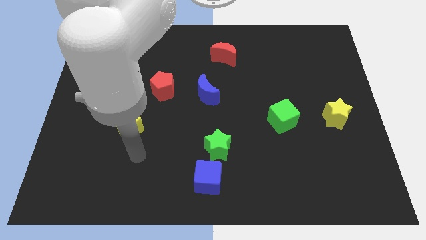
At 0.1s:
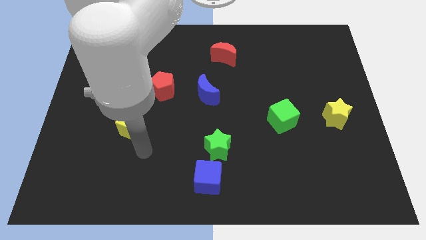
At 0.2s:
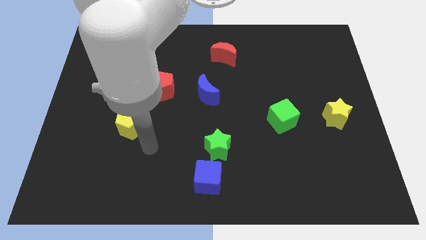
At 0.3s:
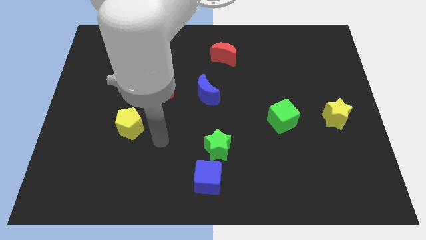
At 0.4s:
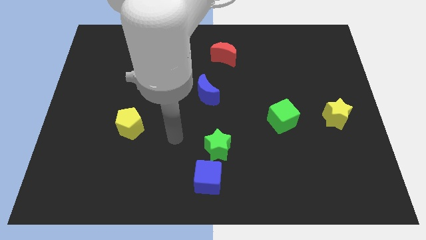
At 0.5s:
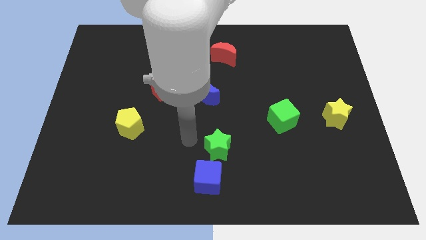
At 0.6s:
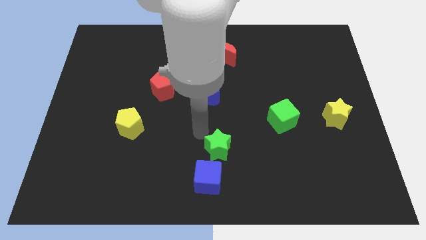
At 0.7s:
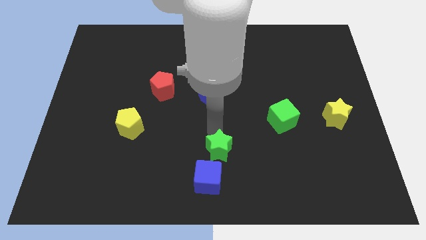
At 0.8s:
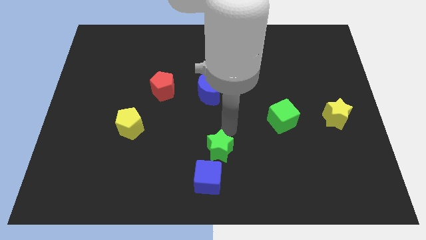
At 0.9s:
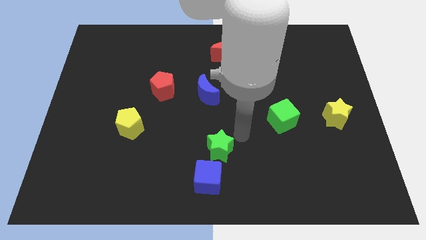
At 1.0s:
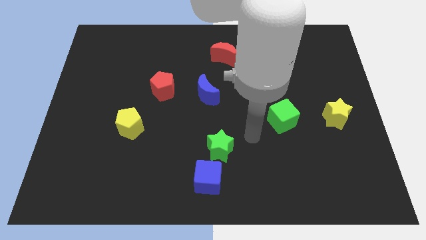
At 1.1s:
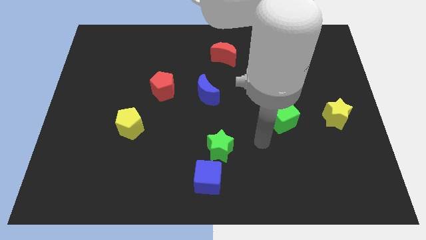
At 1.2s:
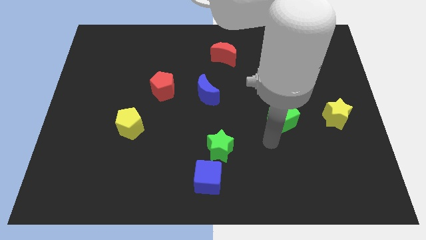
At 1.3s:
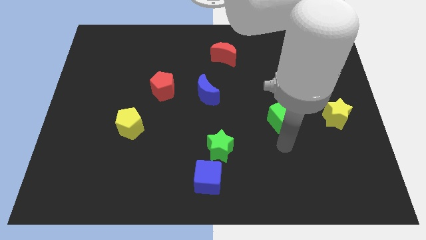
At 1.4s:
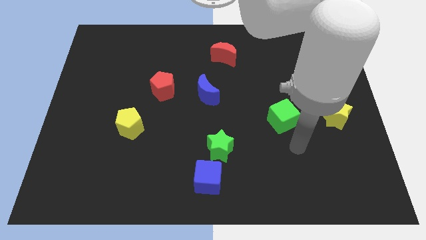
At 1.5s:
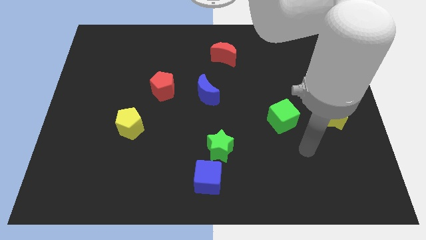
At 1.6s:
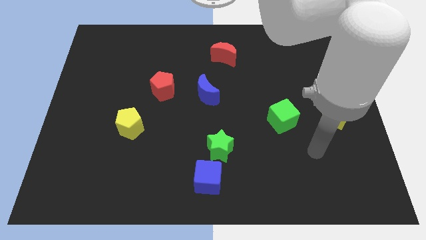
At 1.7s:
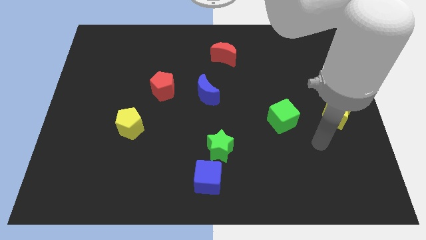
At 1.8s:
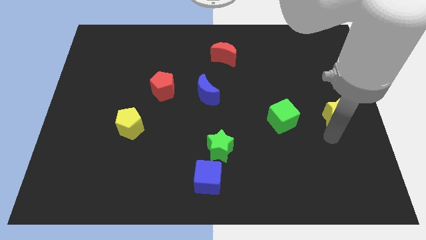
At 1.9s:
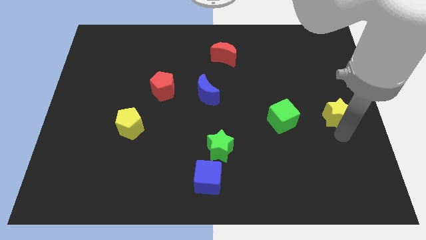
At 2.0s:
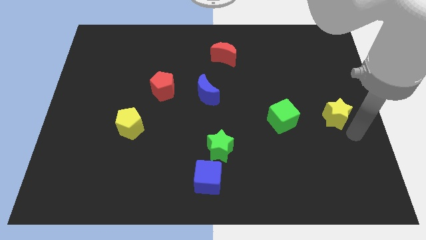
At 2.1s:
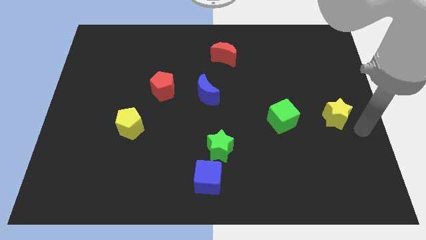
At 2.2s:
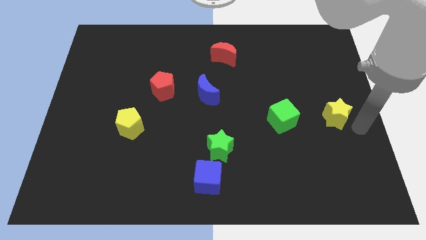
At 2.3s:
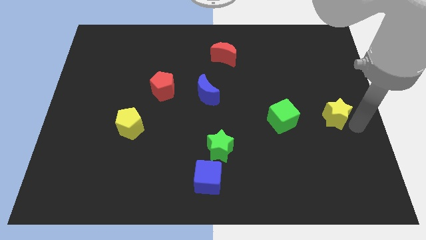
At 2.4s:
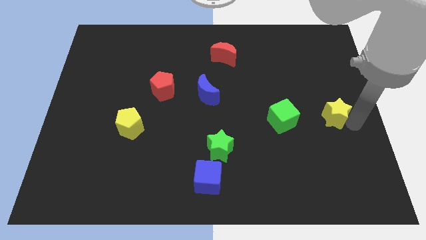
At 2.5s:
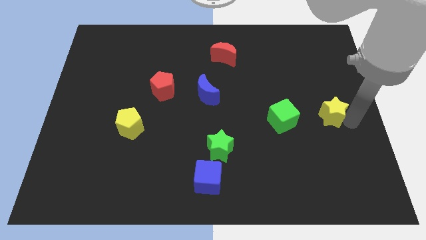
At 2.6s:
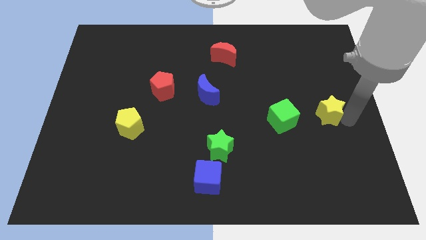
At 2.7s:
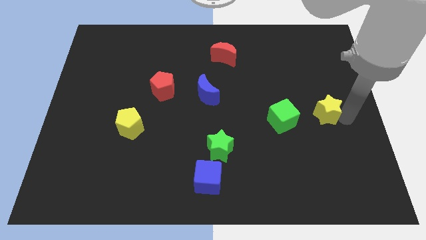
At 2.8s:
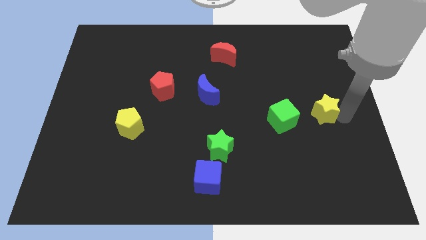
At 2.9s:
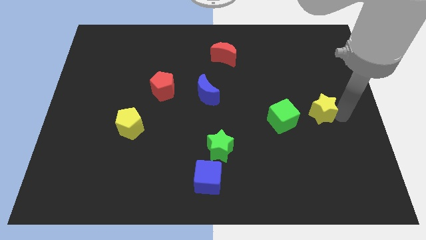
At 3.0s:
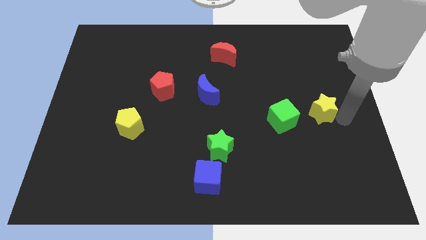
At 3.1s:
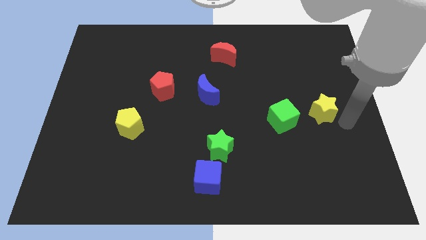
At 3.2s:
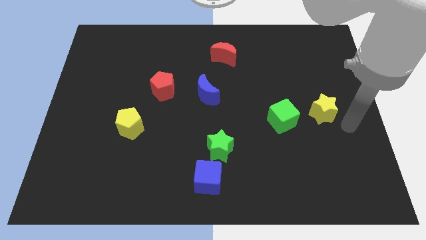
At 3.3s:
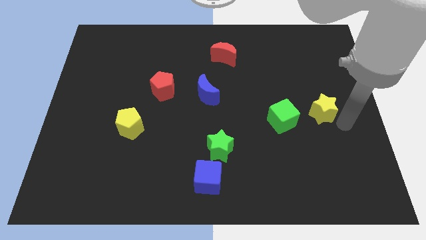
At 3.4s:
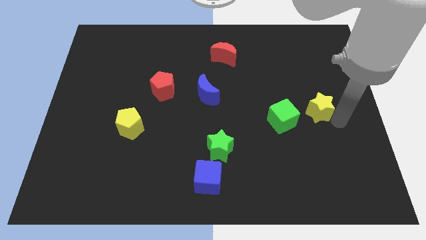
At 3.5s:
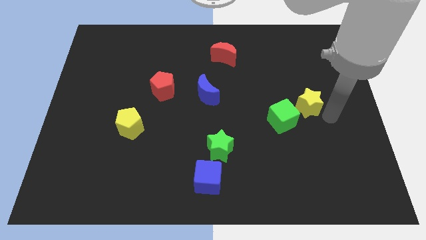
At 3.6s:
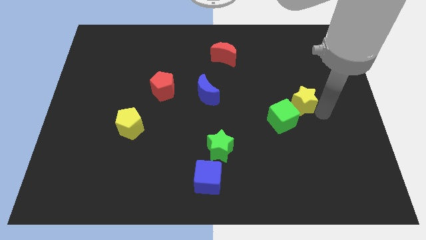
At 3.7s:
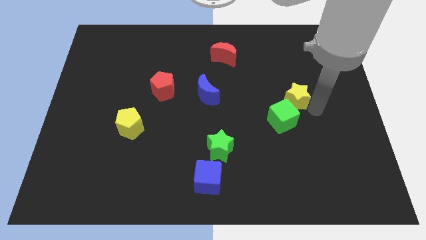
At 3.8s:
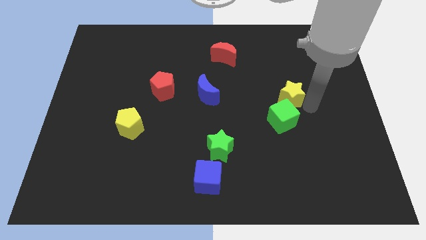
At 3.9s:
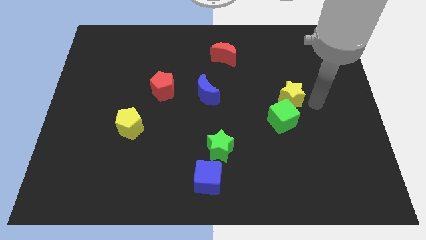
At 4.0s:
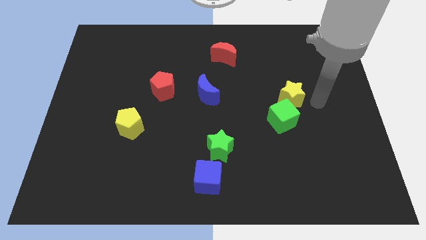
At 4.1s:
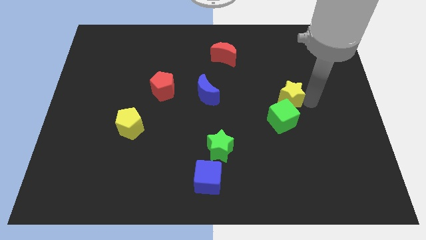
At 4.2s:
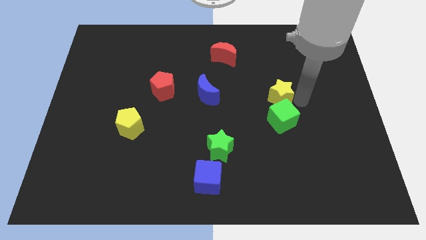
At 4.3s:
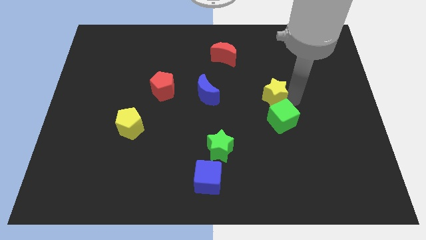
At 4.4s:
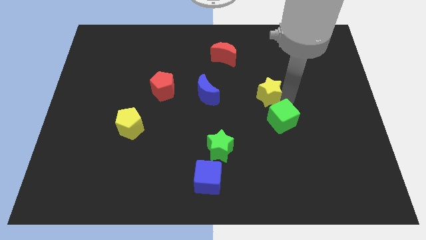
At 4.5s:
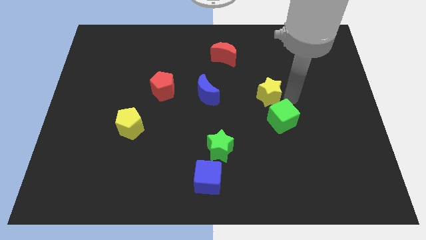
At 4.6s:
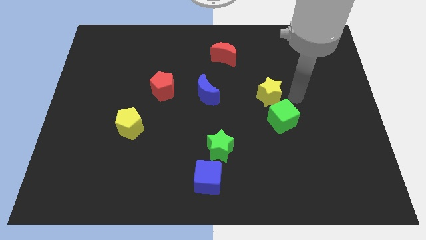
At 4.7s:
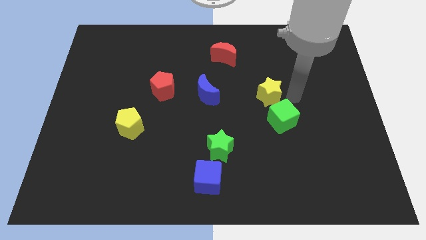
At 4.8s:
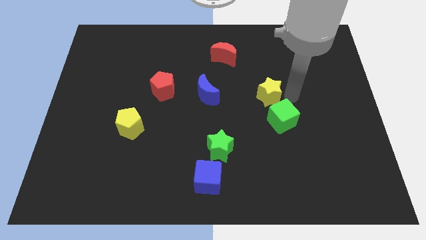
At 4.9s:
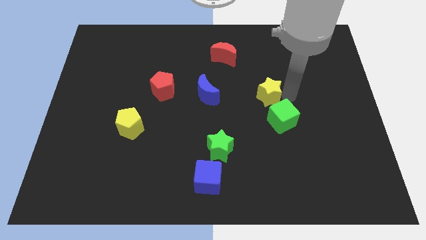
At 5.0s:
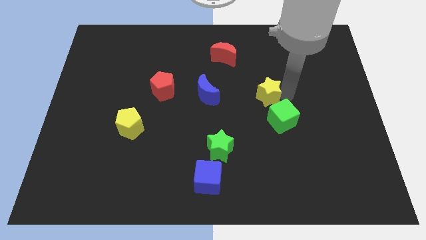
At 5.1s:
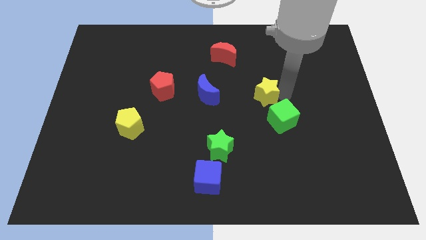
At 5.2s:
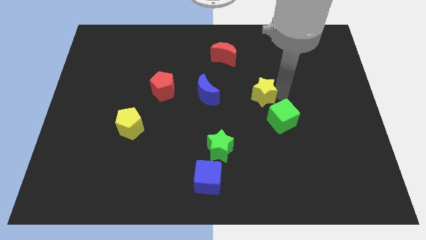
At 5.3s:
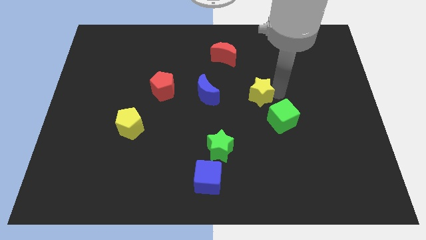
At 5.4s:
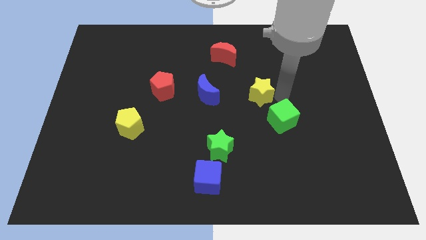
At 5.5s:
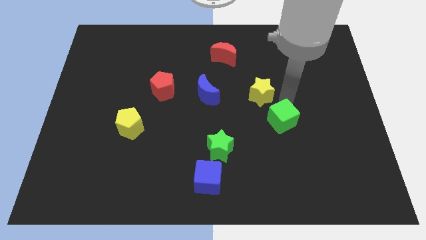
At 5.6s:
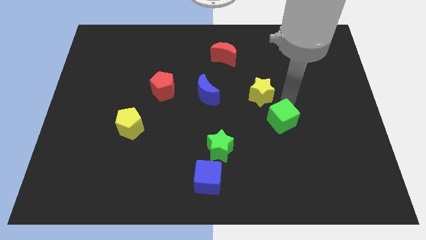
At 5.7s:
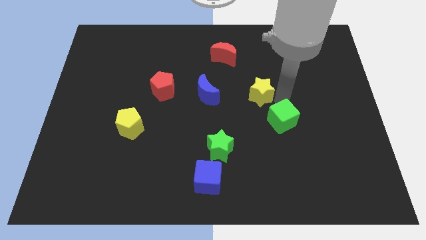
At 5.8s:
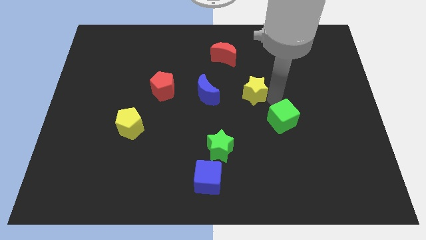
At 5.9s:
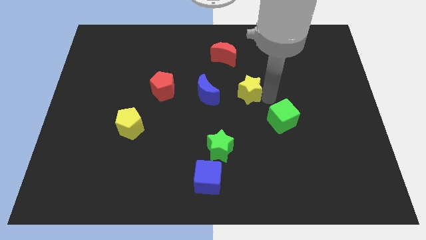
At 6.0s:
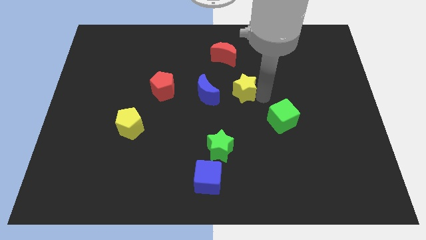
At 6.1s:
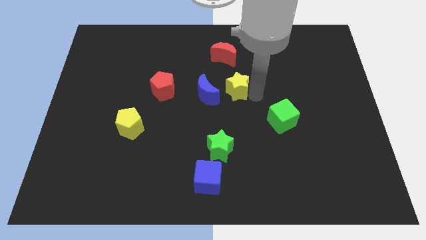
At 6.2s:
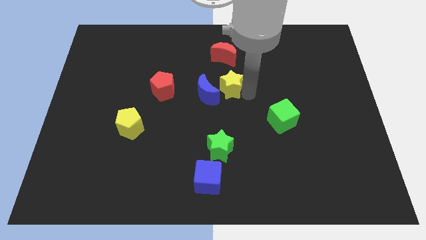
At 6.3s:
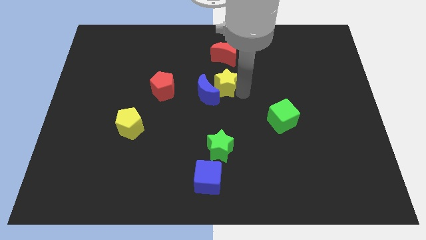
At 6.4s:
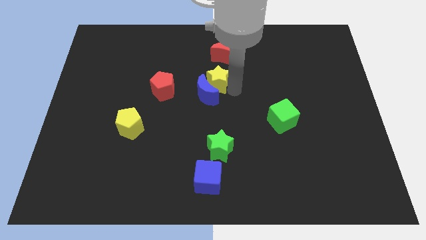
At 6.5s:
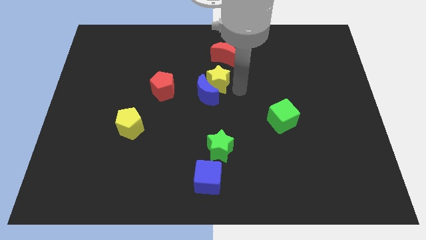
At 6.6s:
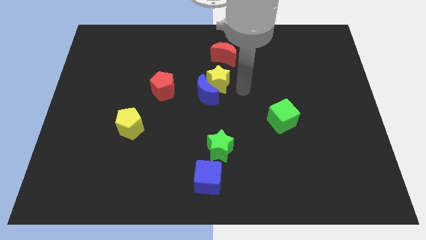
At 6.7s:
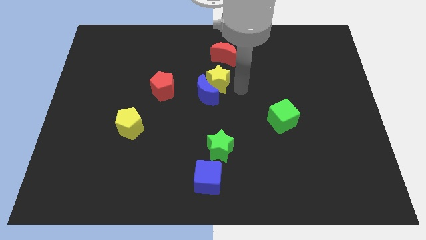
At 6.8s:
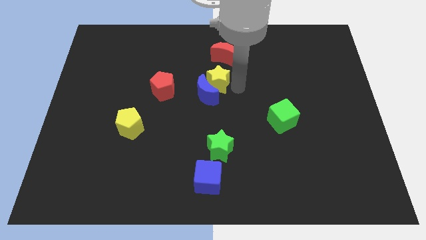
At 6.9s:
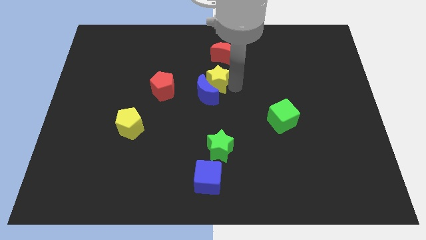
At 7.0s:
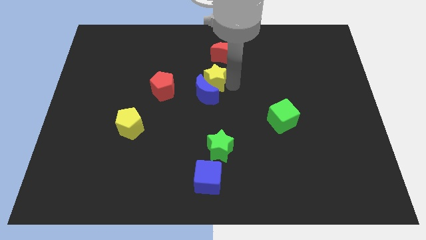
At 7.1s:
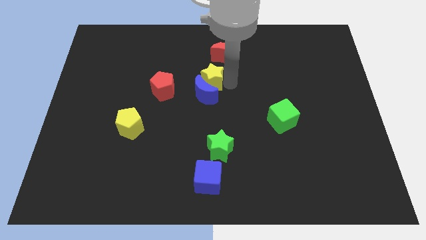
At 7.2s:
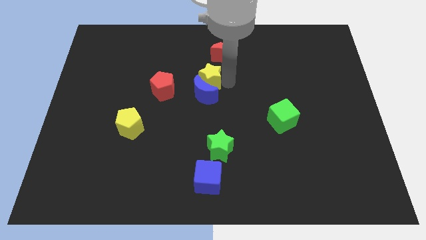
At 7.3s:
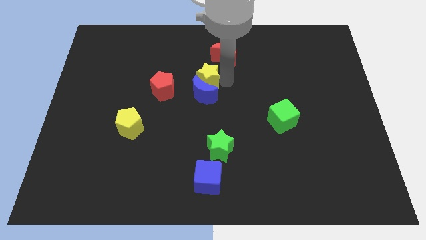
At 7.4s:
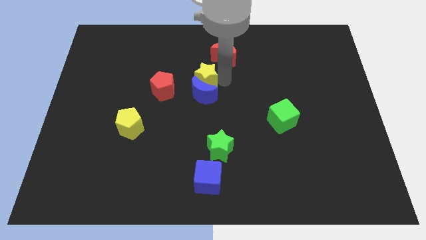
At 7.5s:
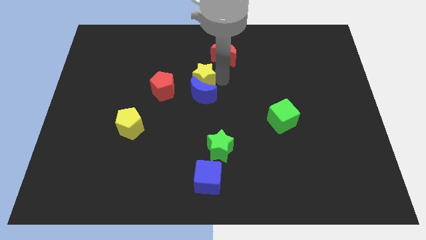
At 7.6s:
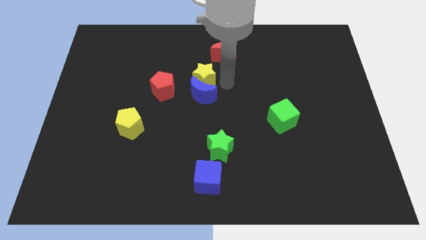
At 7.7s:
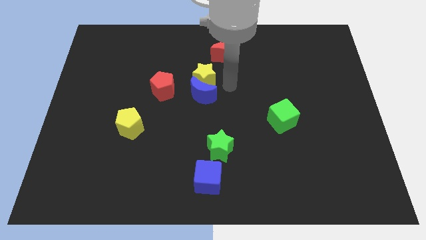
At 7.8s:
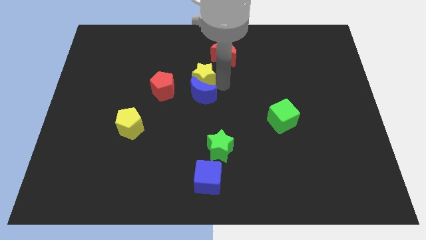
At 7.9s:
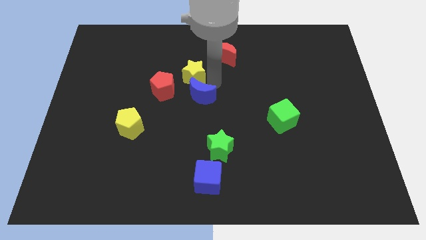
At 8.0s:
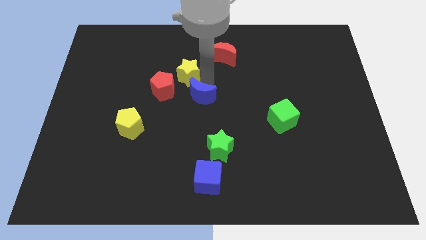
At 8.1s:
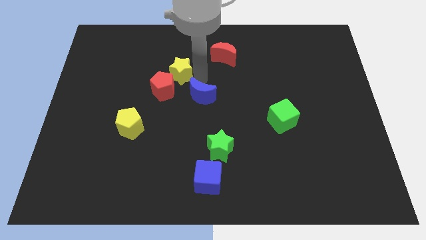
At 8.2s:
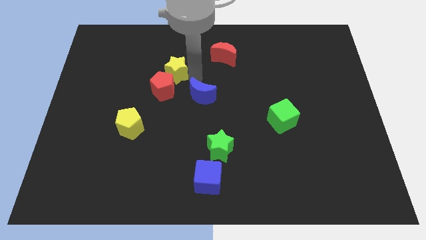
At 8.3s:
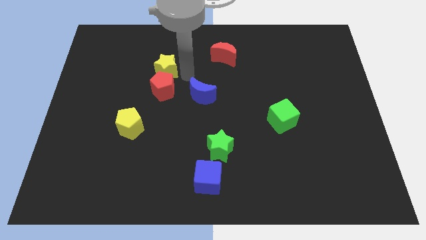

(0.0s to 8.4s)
move the yellow star diagonally up and to the left of the red pentagon
